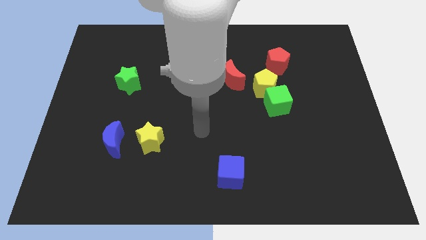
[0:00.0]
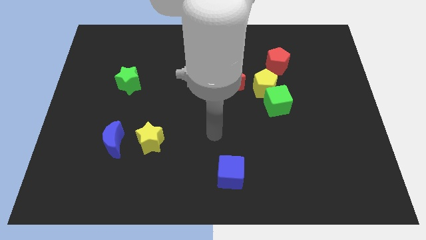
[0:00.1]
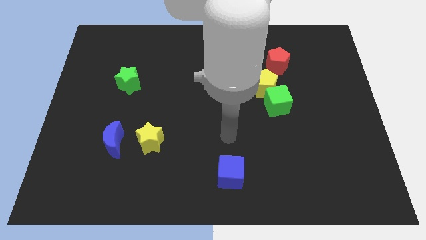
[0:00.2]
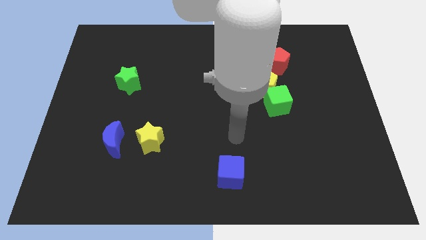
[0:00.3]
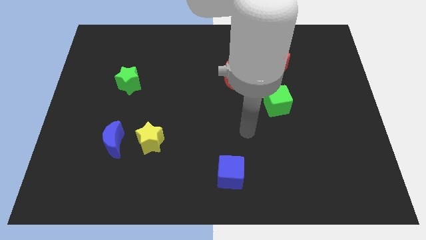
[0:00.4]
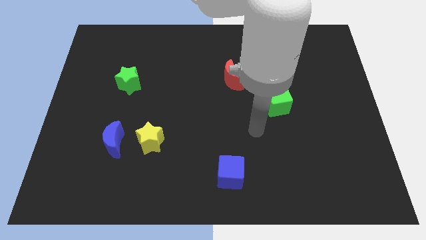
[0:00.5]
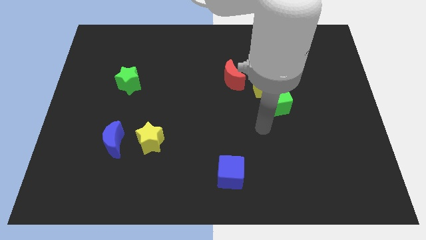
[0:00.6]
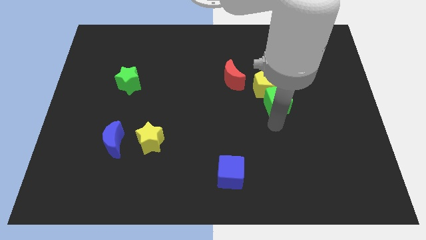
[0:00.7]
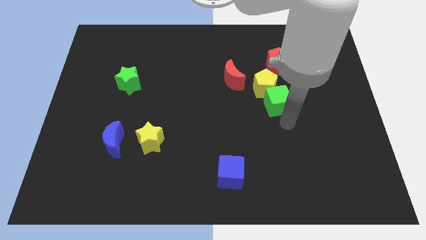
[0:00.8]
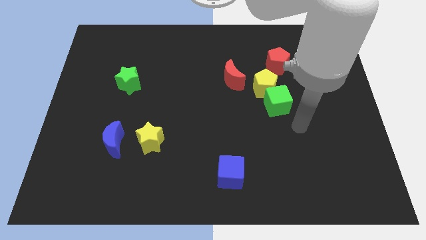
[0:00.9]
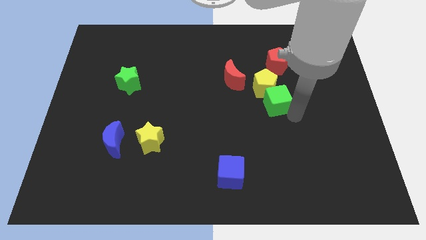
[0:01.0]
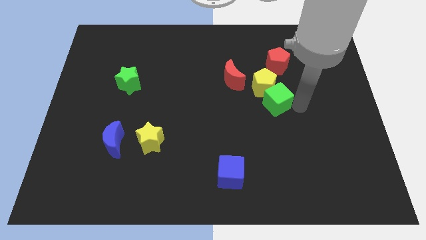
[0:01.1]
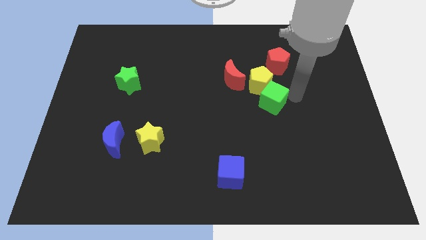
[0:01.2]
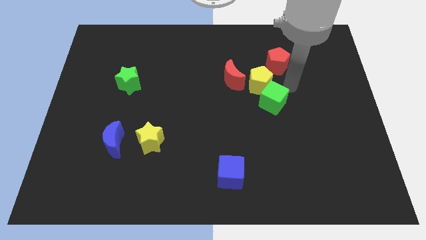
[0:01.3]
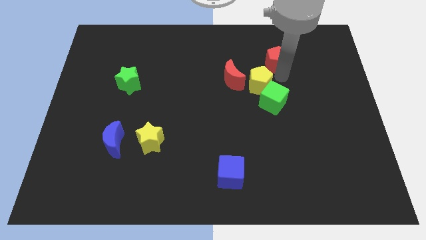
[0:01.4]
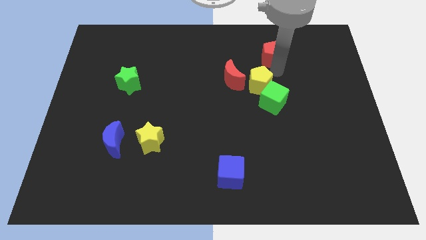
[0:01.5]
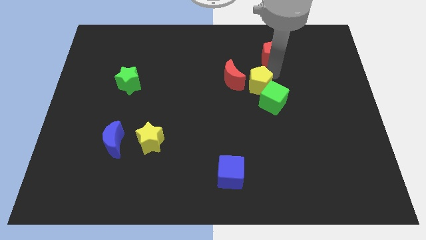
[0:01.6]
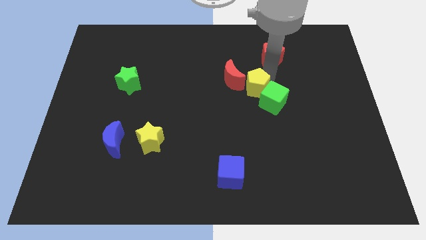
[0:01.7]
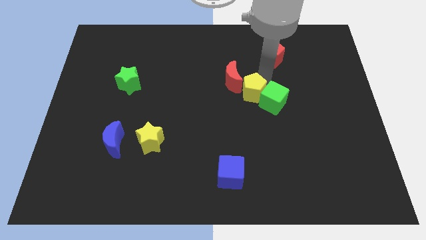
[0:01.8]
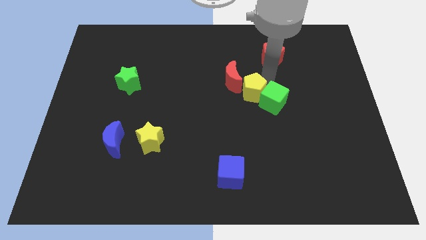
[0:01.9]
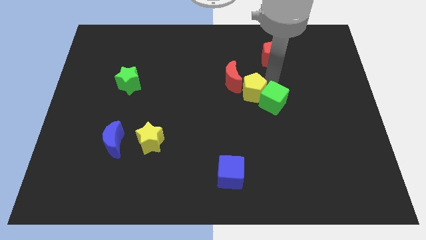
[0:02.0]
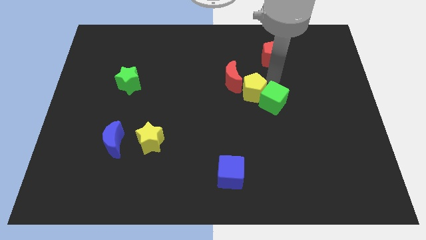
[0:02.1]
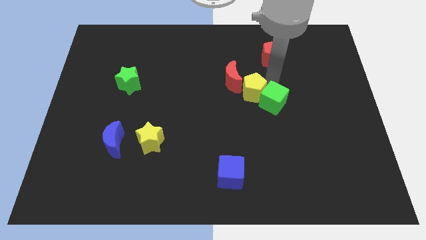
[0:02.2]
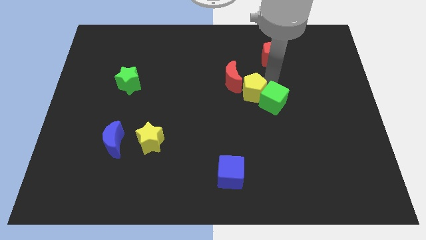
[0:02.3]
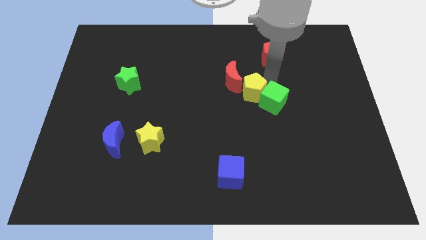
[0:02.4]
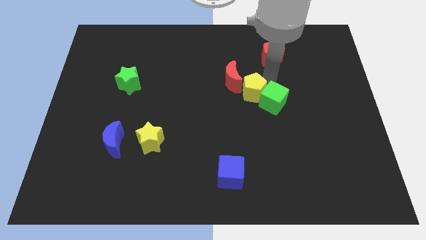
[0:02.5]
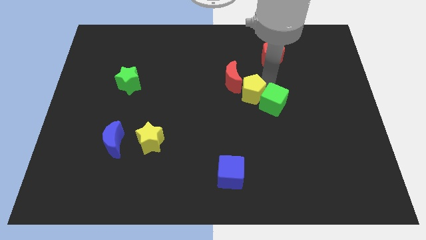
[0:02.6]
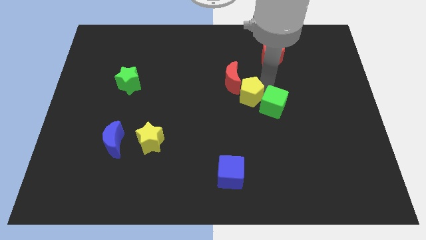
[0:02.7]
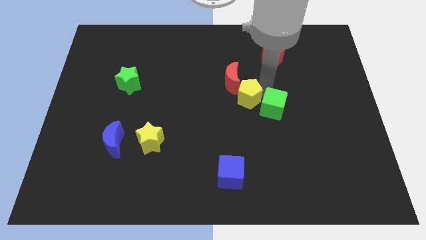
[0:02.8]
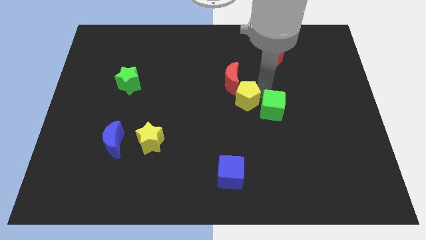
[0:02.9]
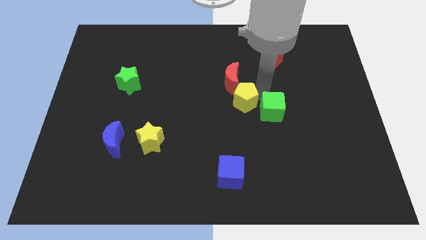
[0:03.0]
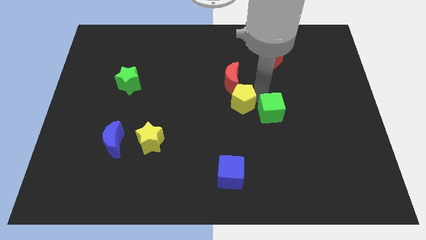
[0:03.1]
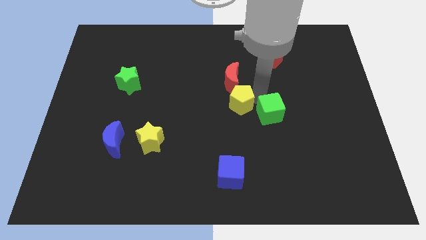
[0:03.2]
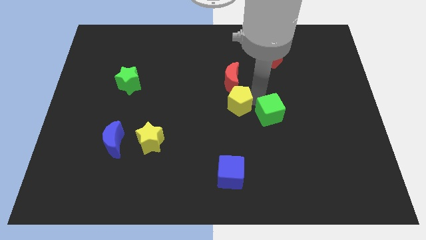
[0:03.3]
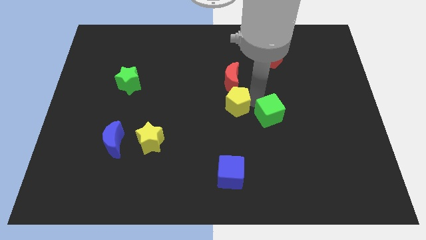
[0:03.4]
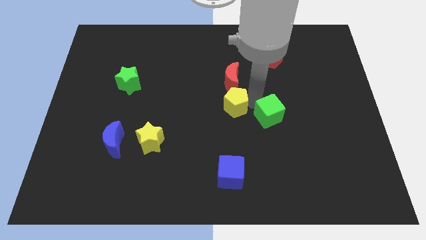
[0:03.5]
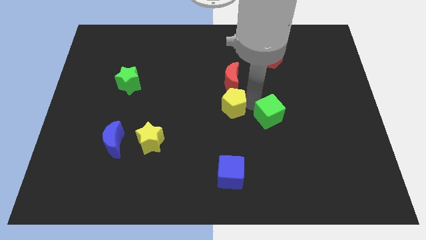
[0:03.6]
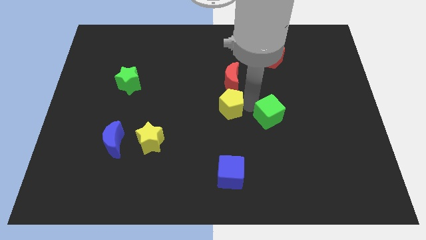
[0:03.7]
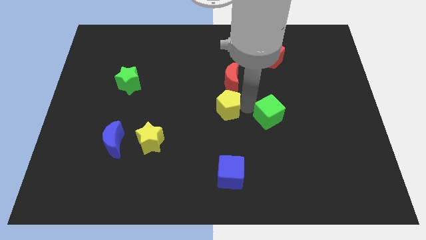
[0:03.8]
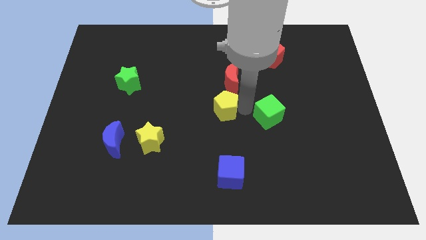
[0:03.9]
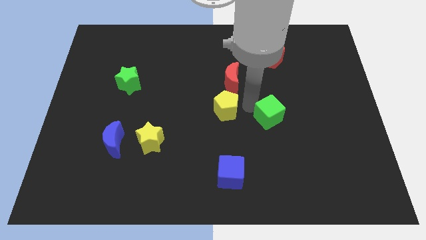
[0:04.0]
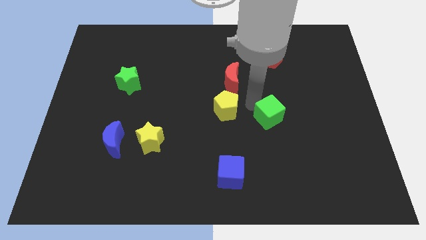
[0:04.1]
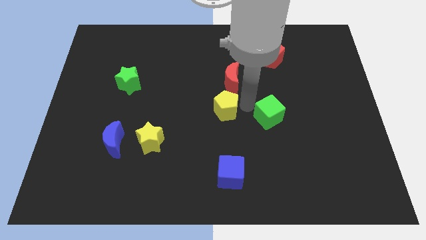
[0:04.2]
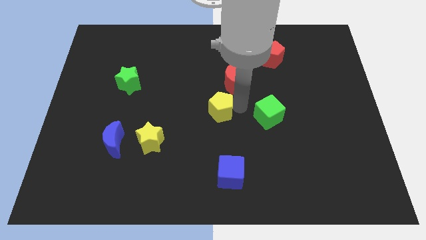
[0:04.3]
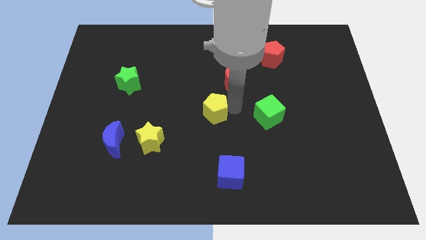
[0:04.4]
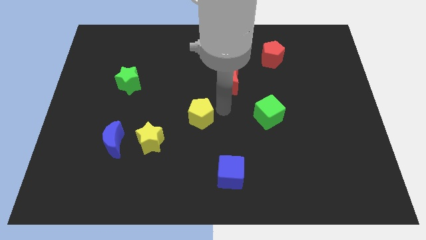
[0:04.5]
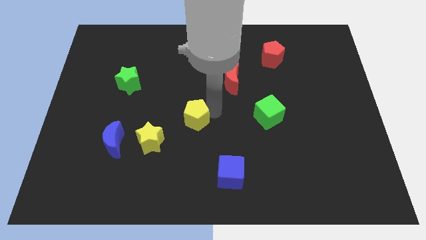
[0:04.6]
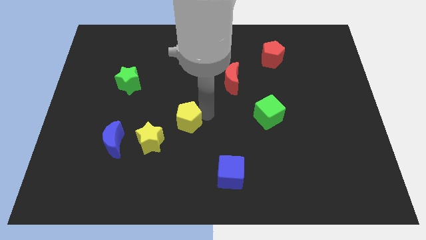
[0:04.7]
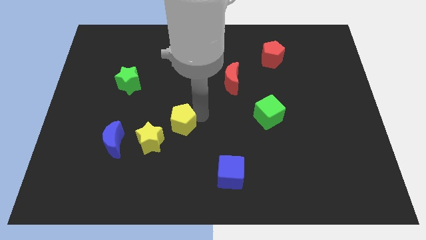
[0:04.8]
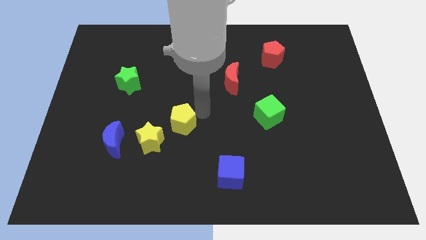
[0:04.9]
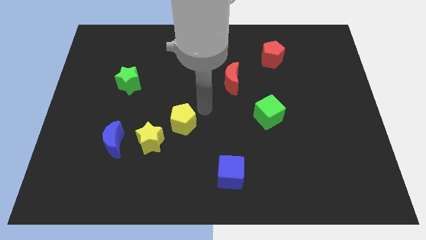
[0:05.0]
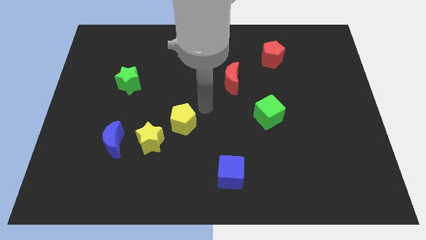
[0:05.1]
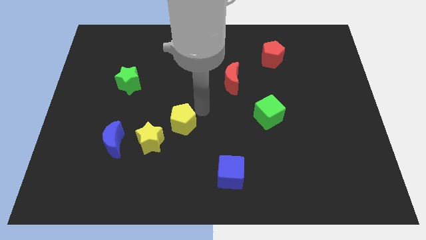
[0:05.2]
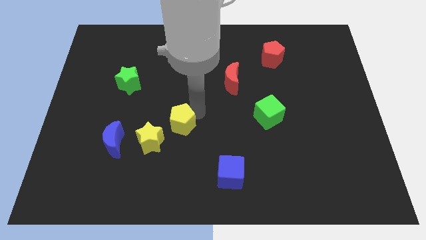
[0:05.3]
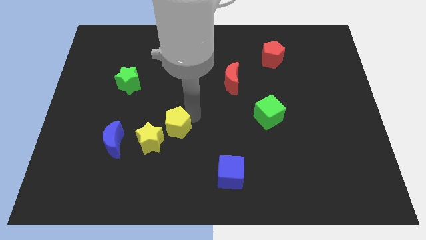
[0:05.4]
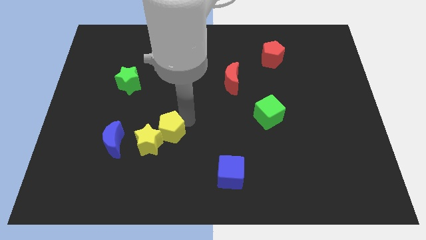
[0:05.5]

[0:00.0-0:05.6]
move the yellow pentagon towards the yellow star

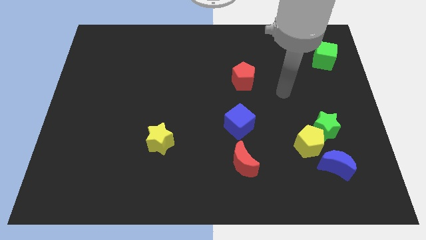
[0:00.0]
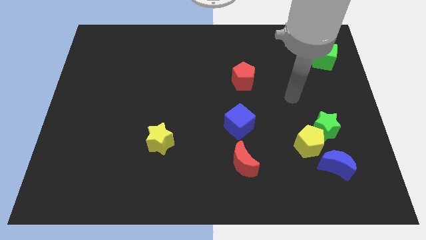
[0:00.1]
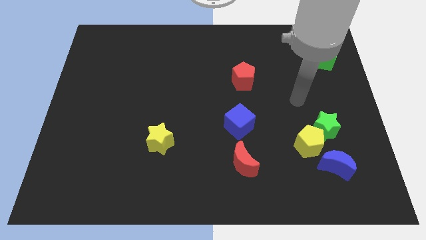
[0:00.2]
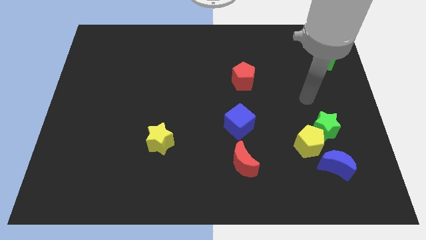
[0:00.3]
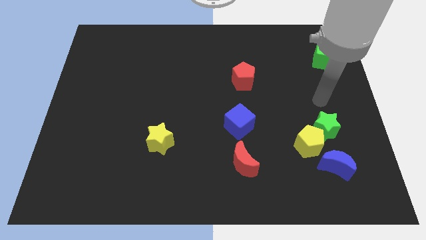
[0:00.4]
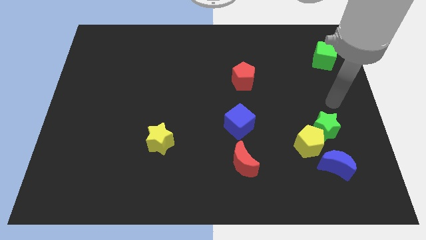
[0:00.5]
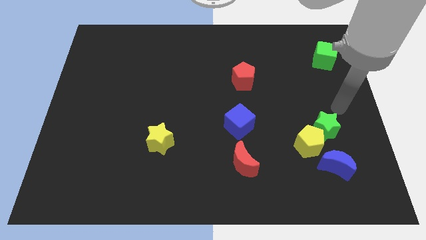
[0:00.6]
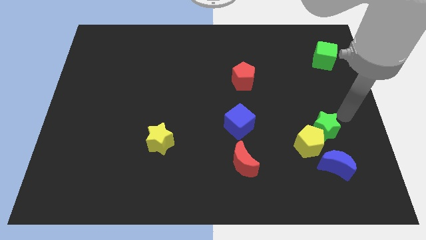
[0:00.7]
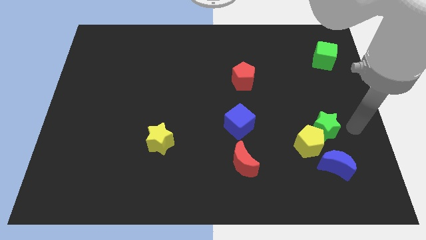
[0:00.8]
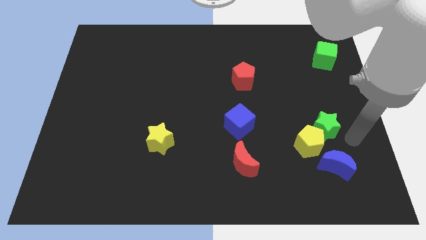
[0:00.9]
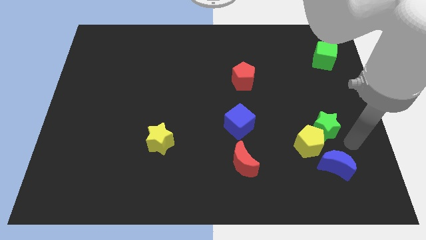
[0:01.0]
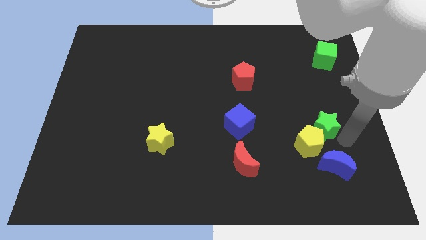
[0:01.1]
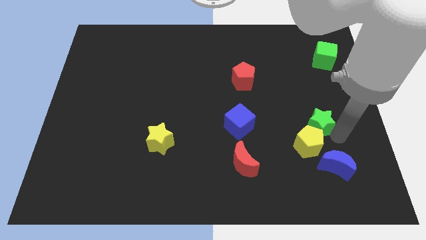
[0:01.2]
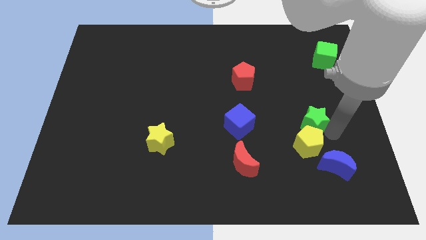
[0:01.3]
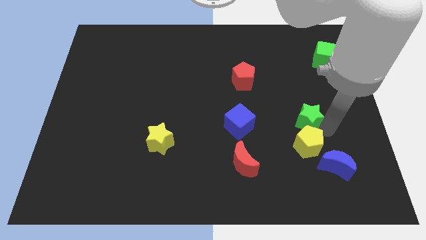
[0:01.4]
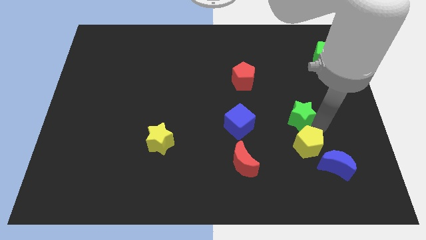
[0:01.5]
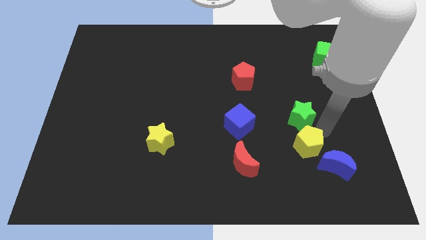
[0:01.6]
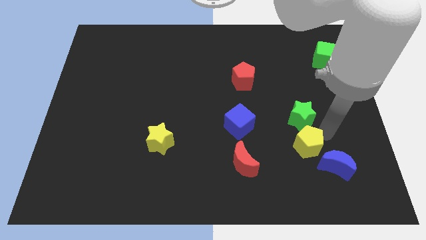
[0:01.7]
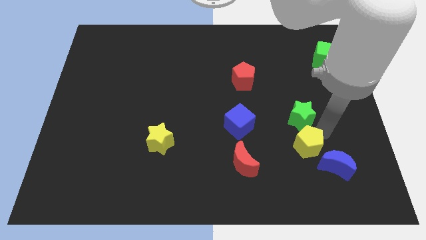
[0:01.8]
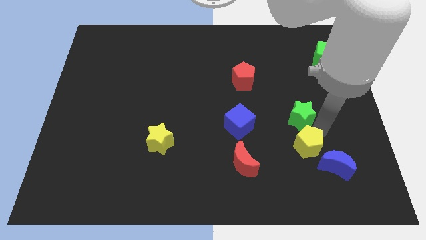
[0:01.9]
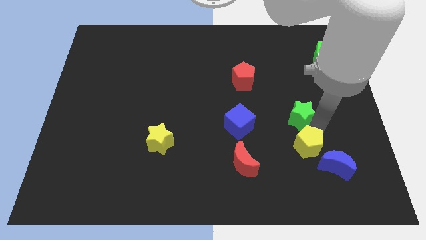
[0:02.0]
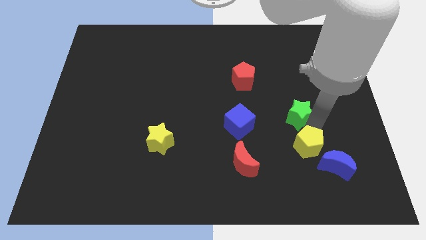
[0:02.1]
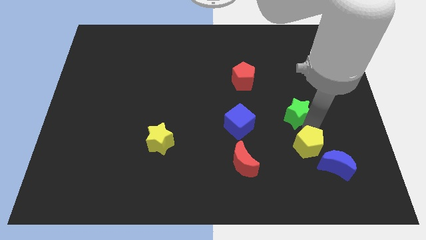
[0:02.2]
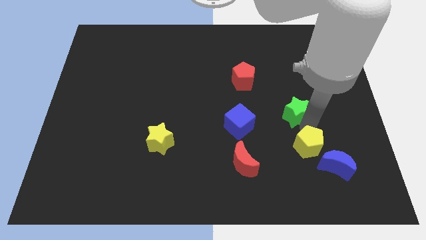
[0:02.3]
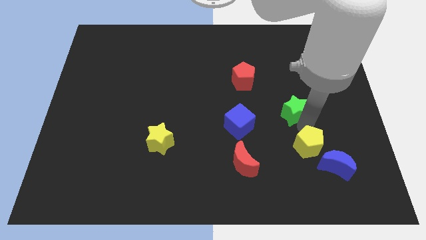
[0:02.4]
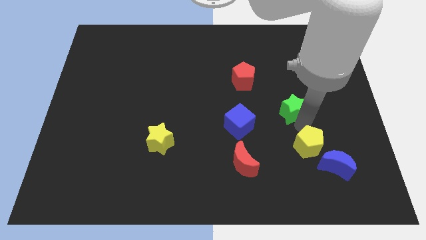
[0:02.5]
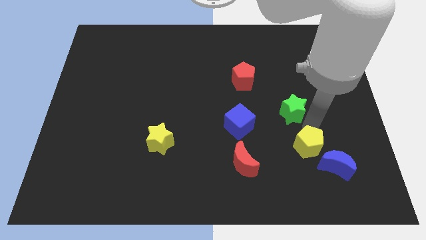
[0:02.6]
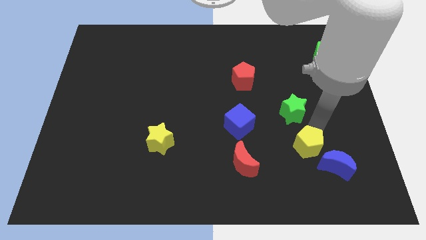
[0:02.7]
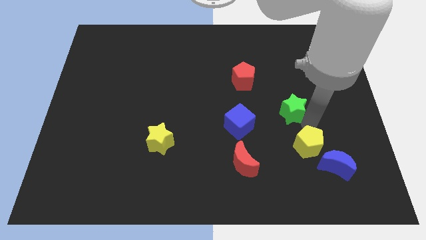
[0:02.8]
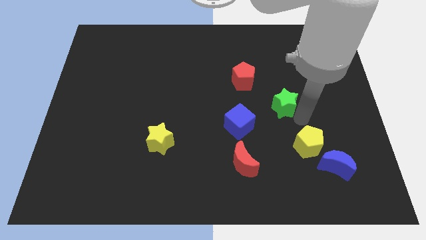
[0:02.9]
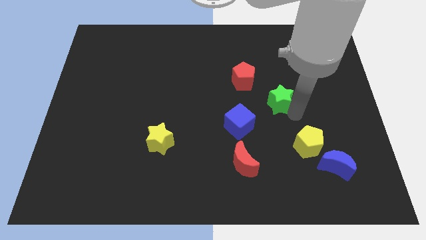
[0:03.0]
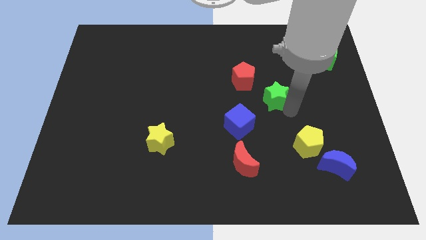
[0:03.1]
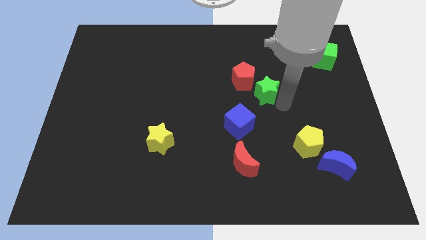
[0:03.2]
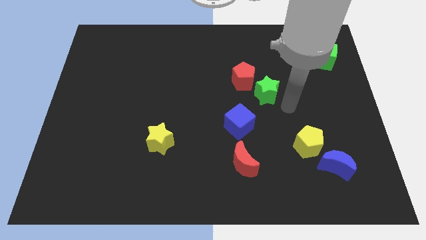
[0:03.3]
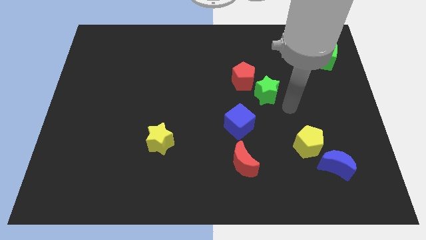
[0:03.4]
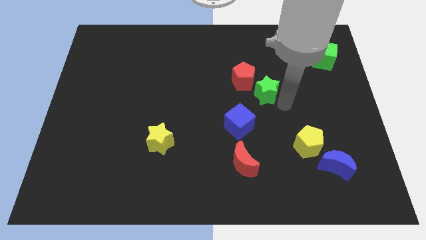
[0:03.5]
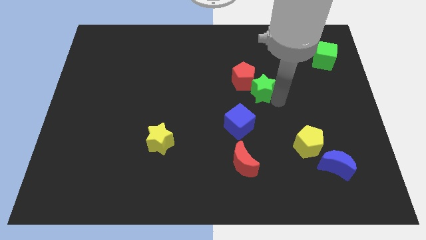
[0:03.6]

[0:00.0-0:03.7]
push the green star close to the red pentagon
